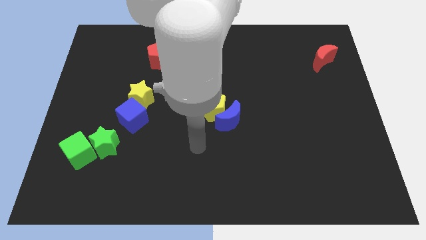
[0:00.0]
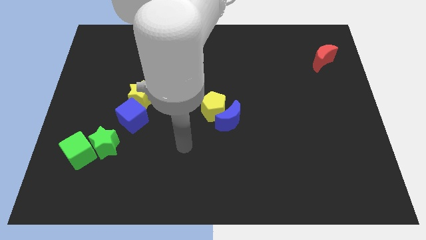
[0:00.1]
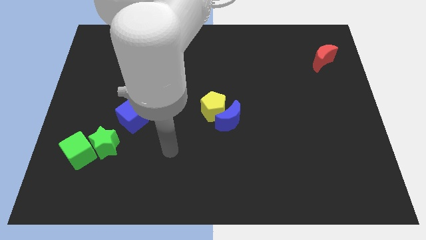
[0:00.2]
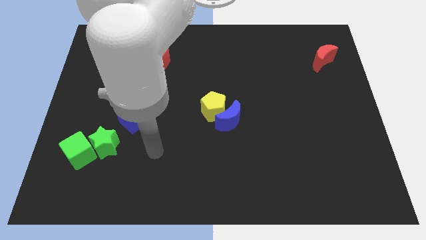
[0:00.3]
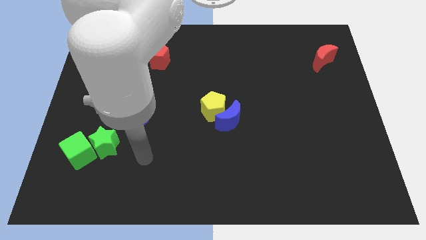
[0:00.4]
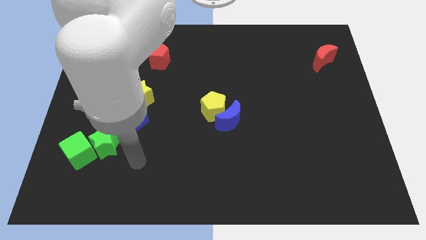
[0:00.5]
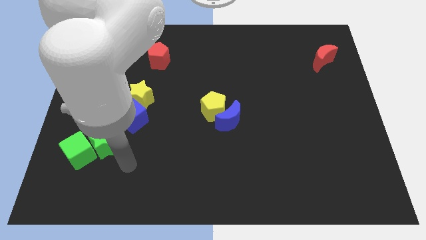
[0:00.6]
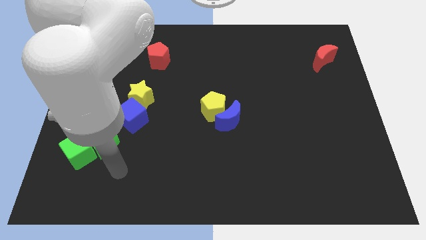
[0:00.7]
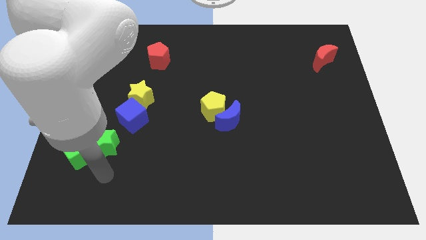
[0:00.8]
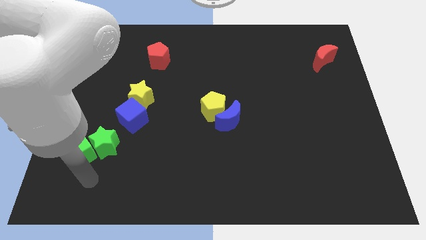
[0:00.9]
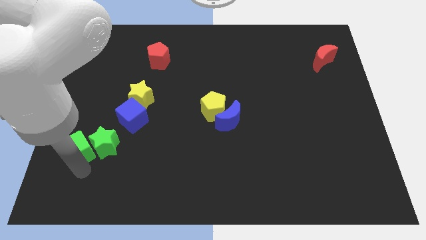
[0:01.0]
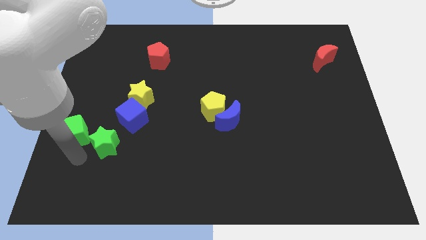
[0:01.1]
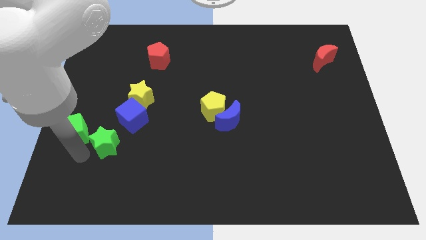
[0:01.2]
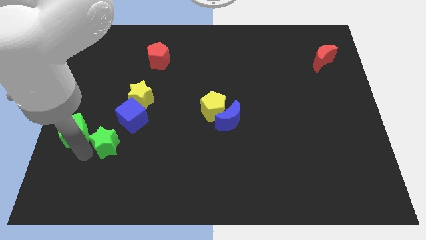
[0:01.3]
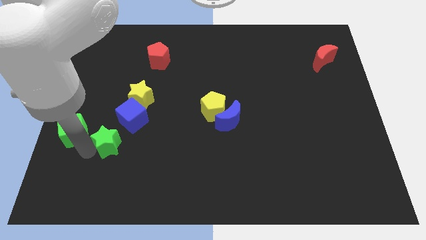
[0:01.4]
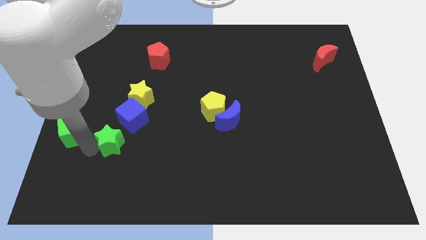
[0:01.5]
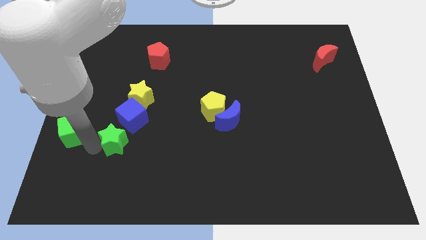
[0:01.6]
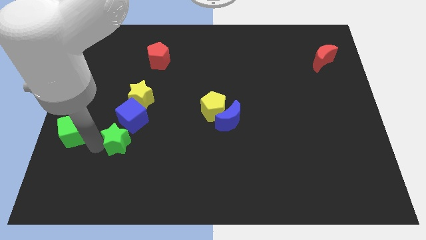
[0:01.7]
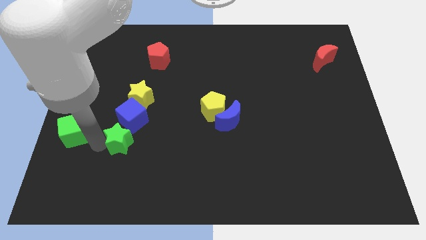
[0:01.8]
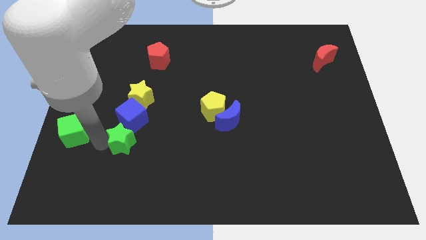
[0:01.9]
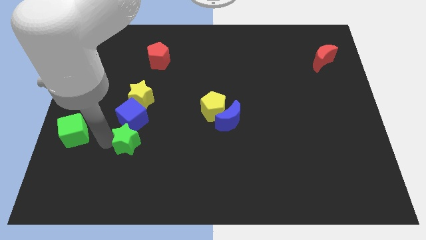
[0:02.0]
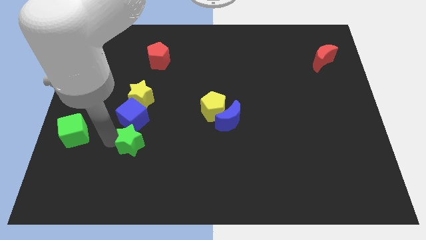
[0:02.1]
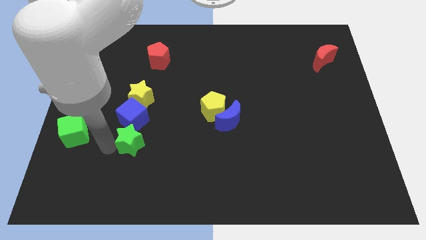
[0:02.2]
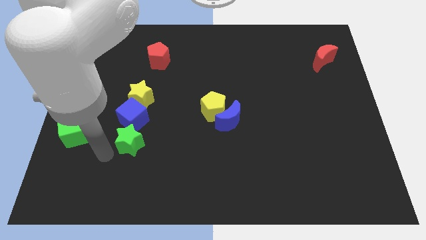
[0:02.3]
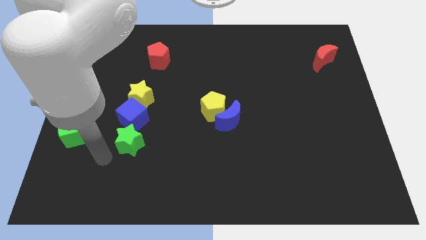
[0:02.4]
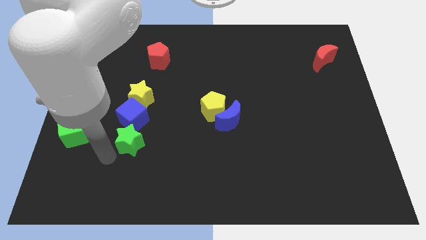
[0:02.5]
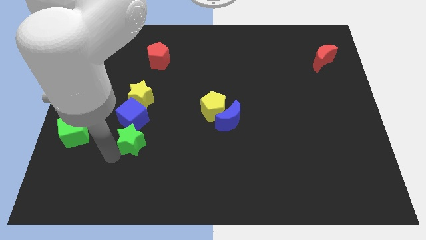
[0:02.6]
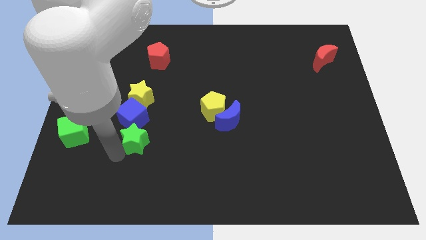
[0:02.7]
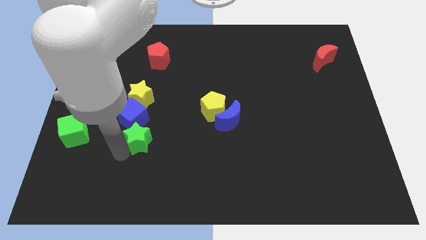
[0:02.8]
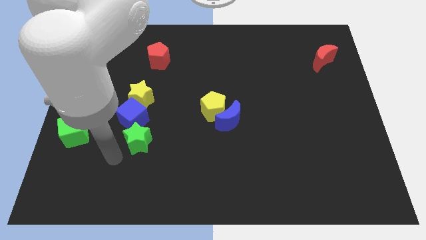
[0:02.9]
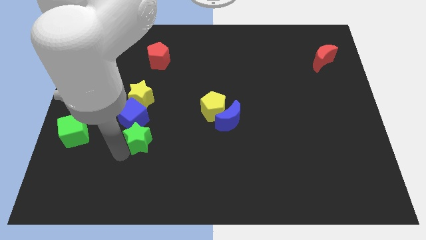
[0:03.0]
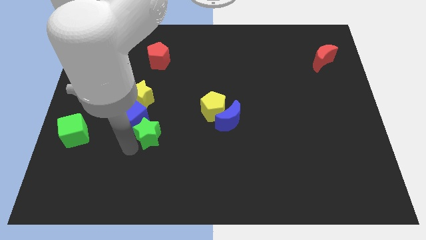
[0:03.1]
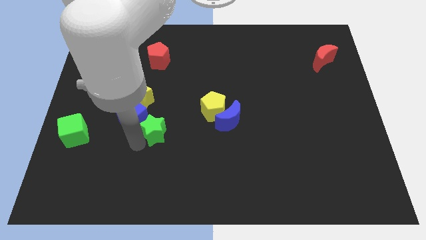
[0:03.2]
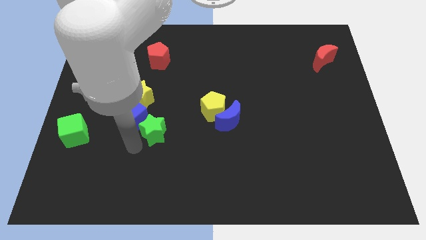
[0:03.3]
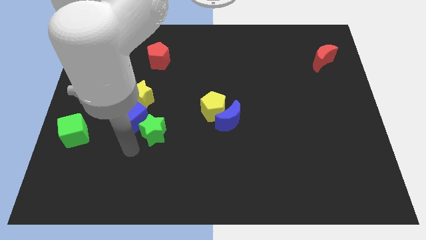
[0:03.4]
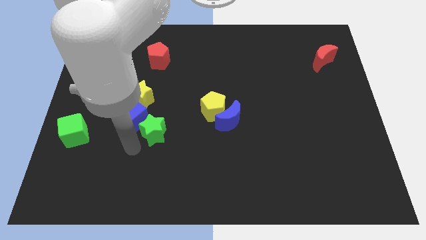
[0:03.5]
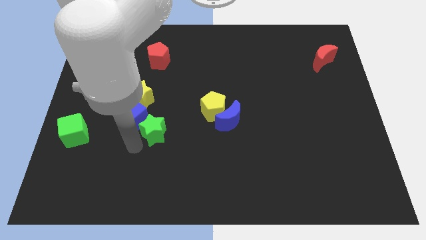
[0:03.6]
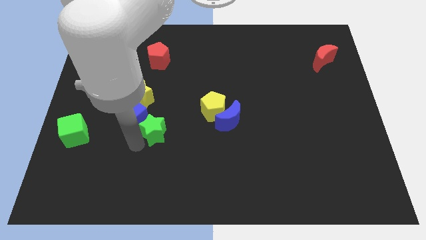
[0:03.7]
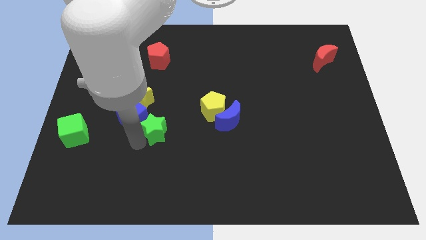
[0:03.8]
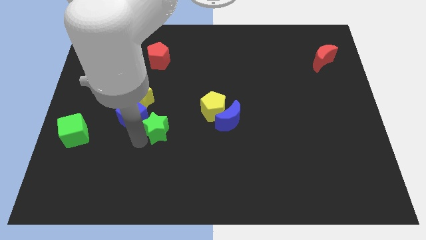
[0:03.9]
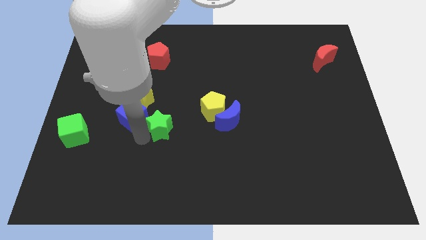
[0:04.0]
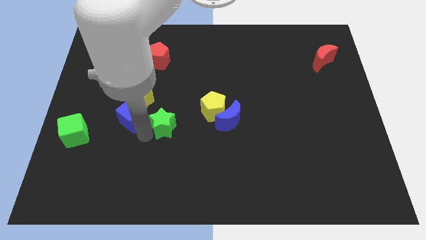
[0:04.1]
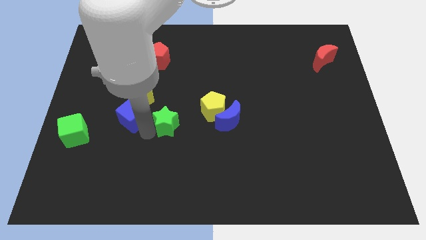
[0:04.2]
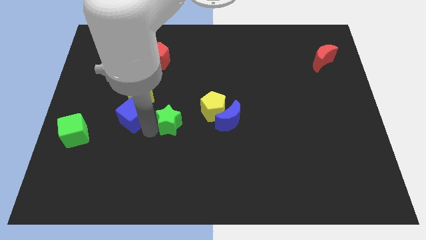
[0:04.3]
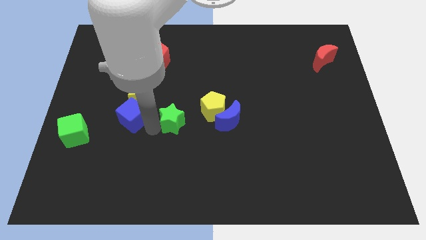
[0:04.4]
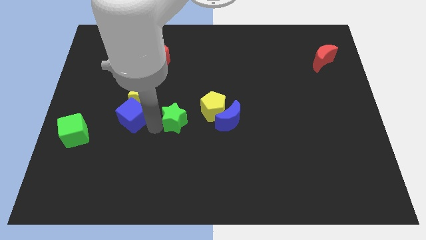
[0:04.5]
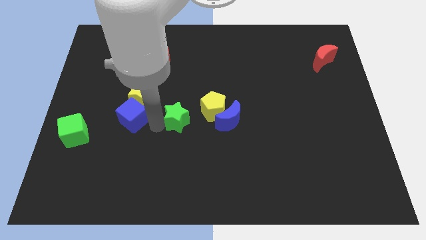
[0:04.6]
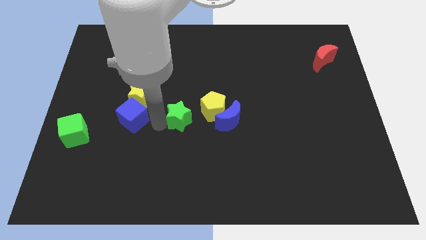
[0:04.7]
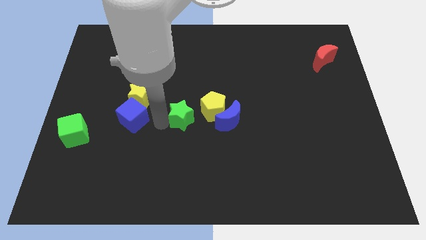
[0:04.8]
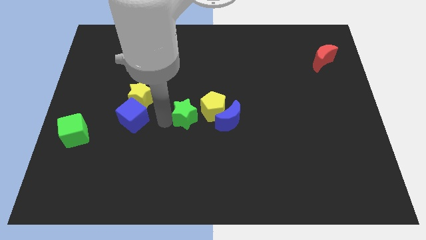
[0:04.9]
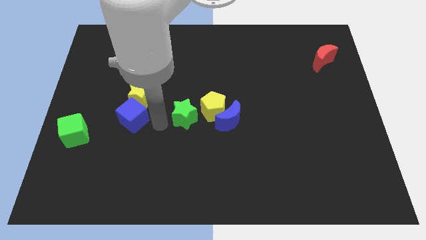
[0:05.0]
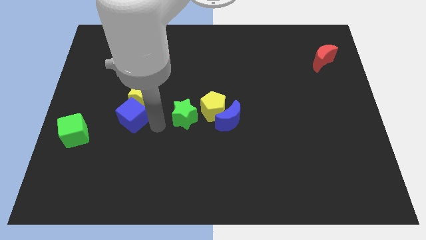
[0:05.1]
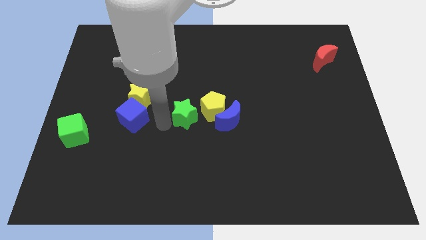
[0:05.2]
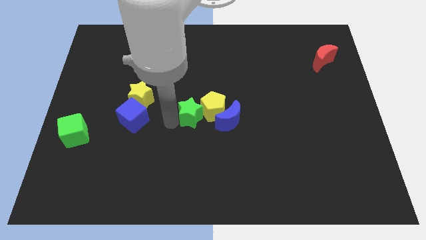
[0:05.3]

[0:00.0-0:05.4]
push the green star next to the yellow pentagon

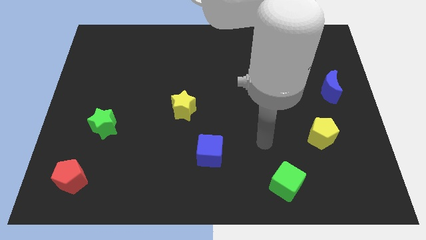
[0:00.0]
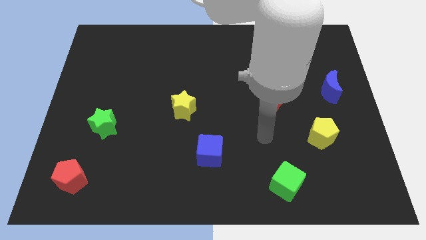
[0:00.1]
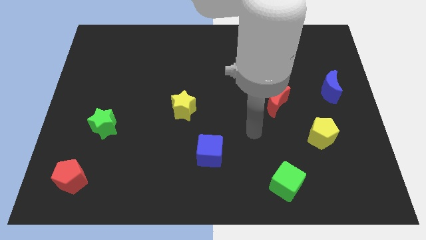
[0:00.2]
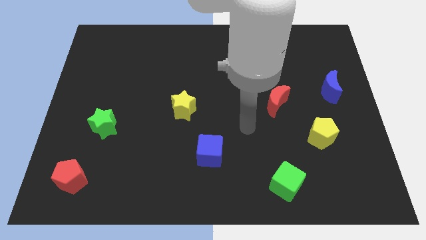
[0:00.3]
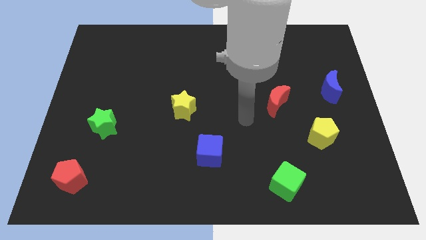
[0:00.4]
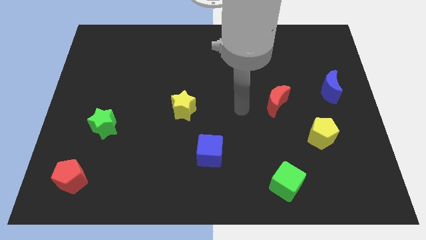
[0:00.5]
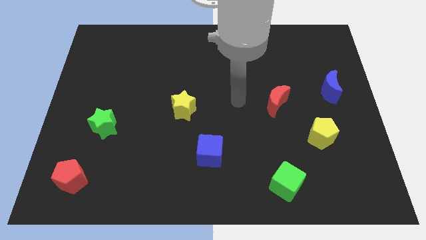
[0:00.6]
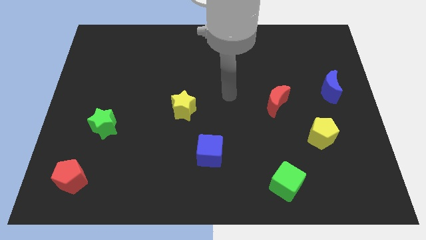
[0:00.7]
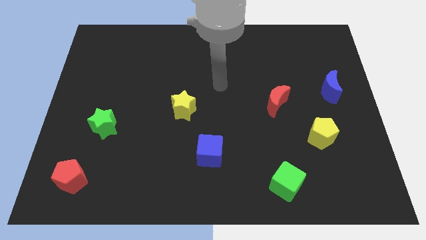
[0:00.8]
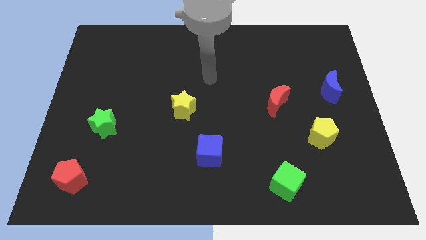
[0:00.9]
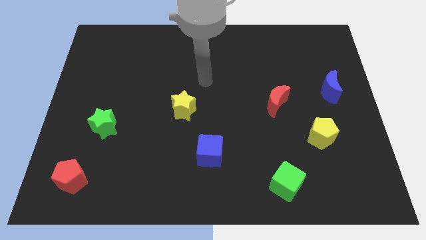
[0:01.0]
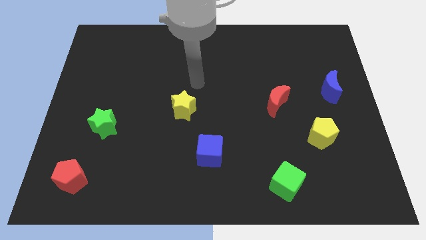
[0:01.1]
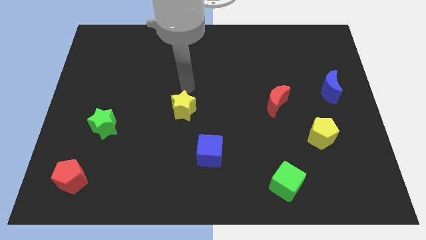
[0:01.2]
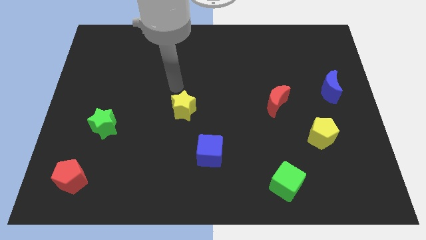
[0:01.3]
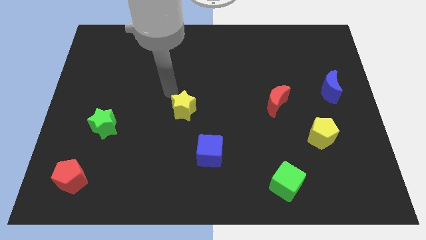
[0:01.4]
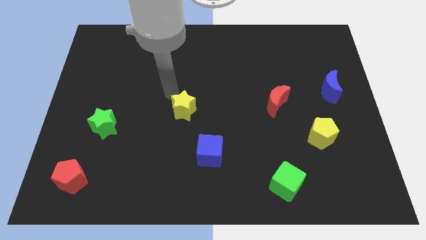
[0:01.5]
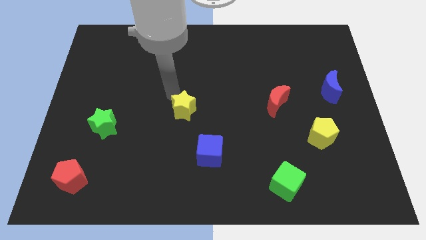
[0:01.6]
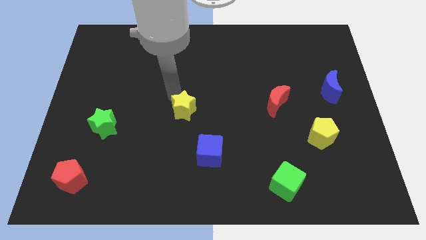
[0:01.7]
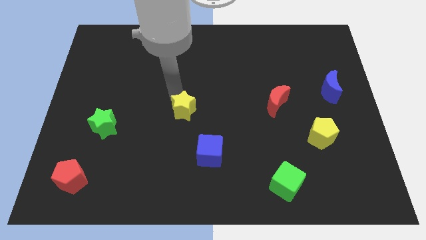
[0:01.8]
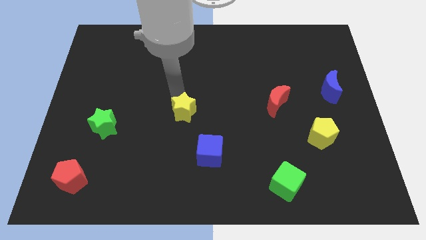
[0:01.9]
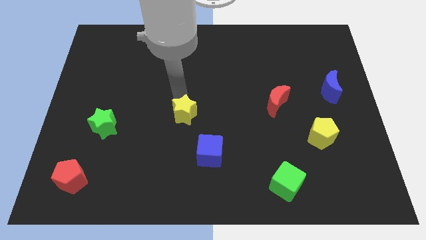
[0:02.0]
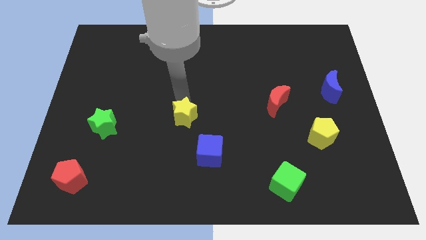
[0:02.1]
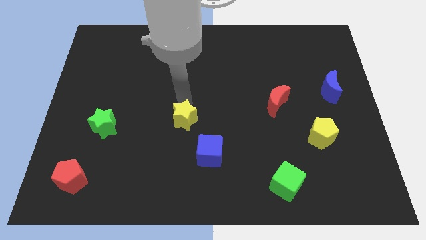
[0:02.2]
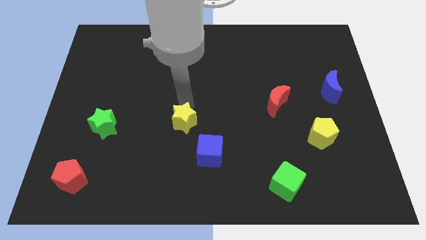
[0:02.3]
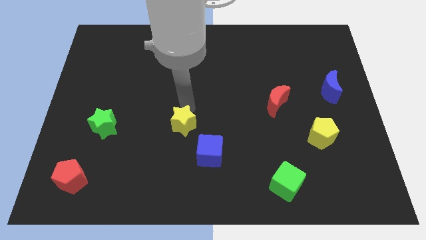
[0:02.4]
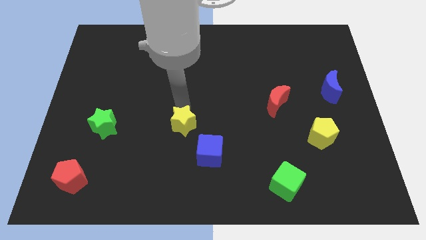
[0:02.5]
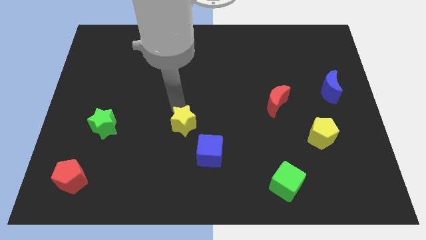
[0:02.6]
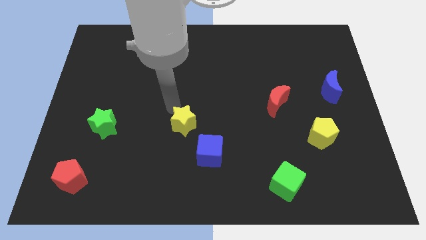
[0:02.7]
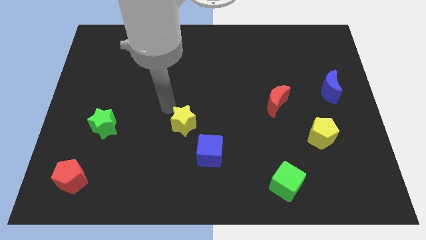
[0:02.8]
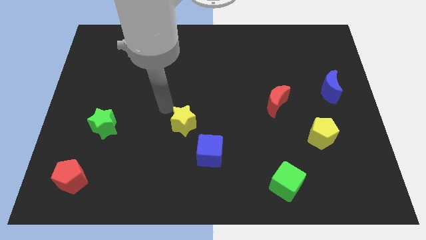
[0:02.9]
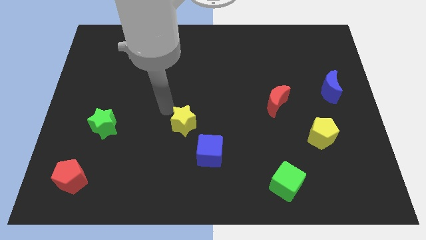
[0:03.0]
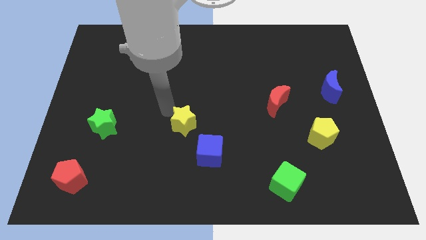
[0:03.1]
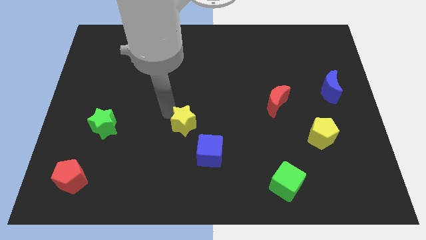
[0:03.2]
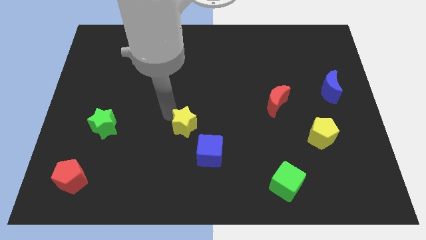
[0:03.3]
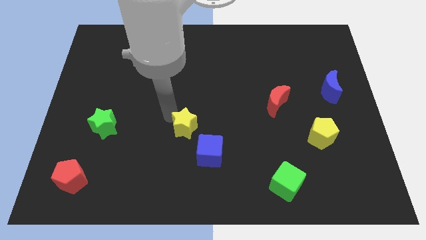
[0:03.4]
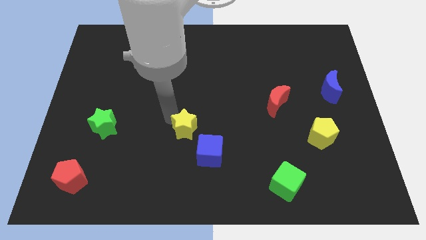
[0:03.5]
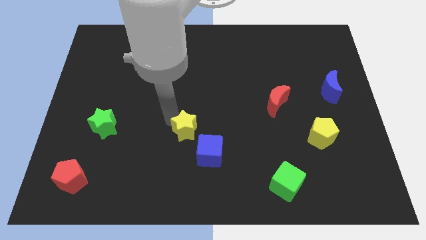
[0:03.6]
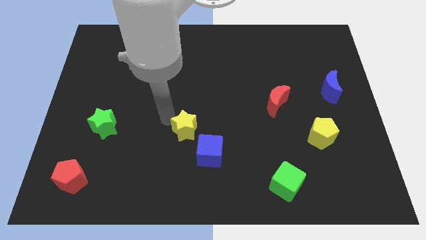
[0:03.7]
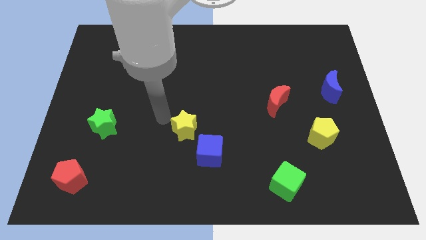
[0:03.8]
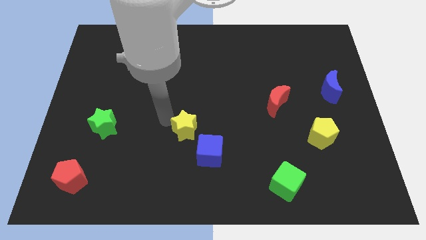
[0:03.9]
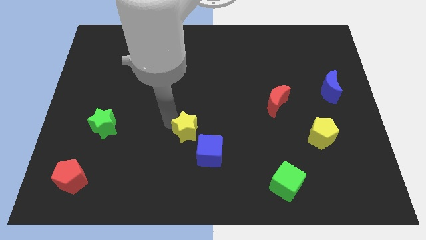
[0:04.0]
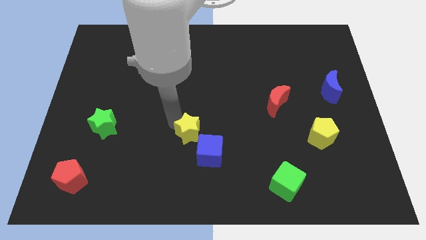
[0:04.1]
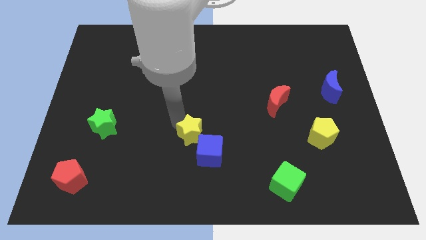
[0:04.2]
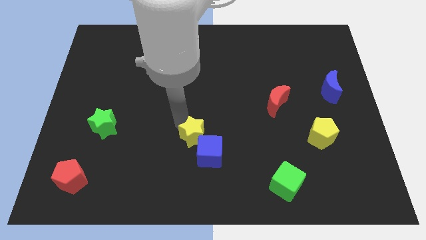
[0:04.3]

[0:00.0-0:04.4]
move the yellow star next to the blue cube
